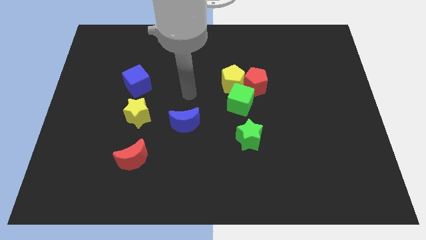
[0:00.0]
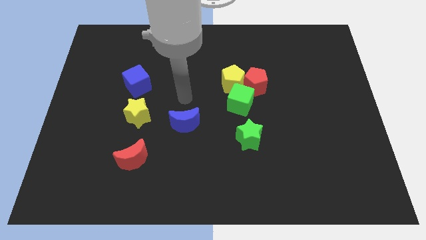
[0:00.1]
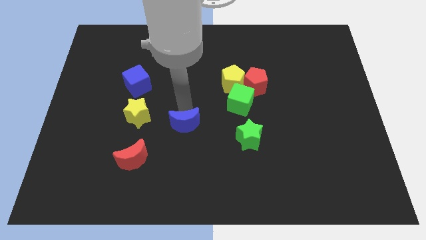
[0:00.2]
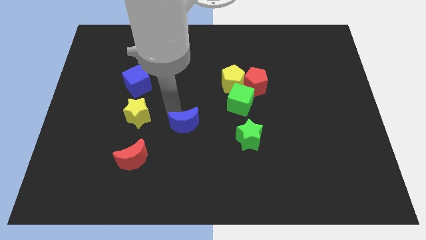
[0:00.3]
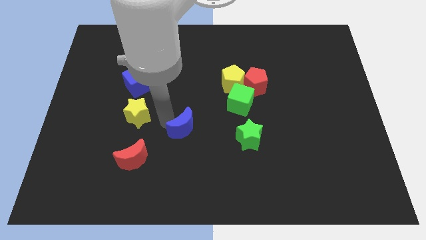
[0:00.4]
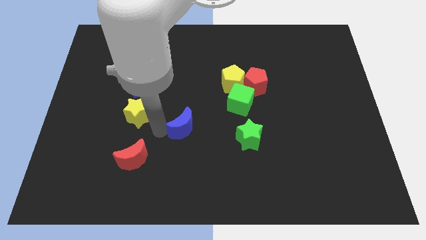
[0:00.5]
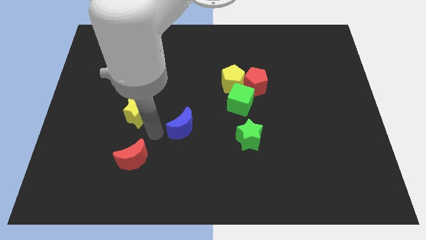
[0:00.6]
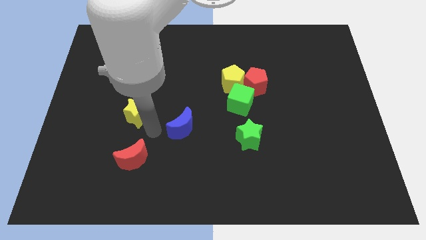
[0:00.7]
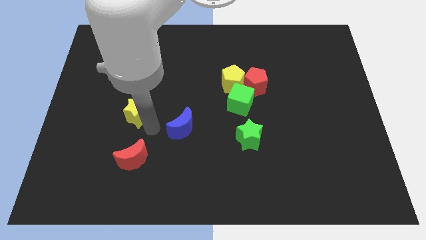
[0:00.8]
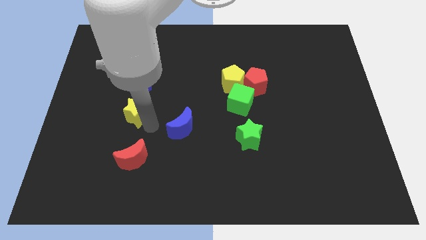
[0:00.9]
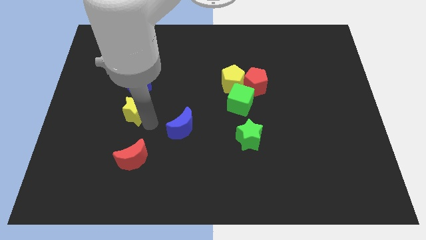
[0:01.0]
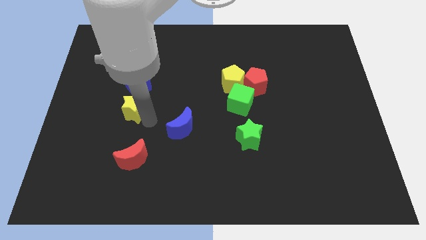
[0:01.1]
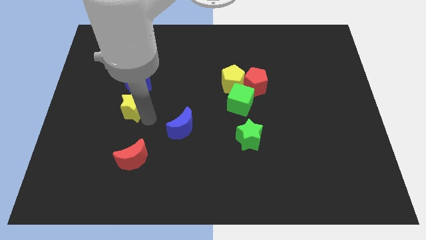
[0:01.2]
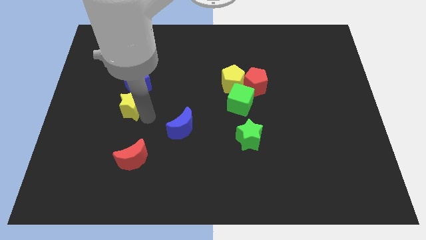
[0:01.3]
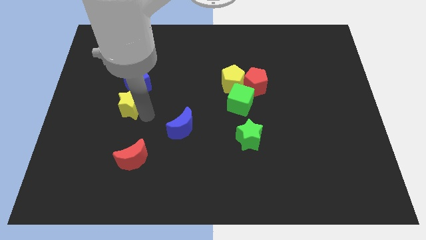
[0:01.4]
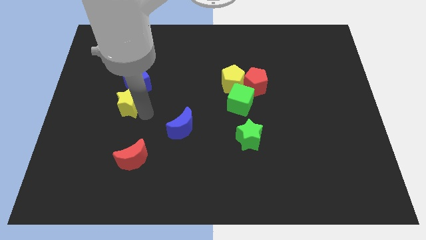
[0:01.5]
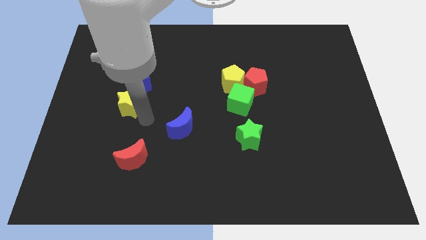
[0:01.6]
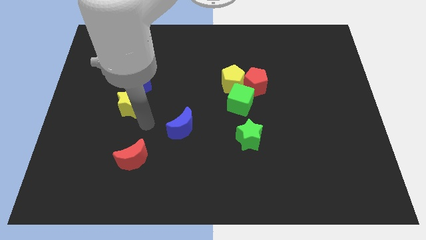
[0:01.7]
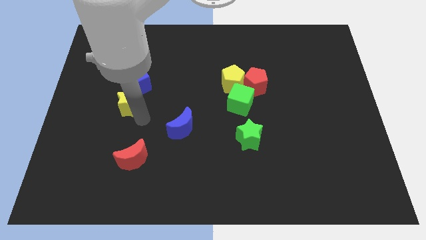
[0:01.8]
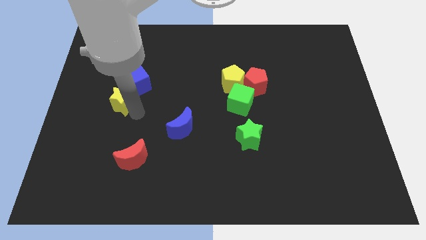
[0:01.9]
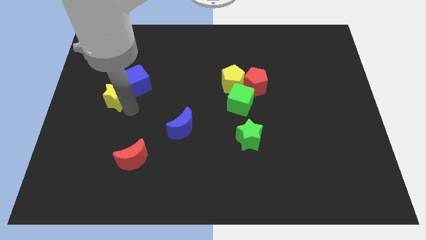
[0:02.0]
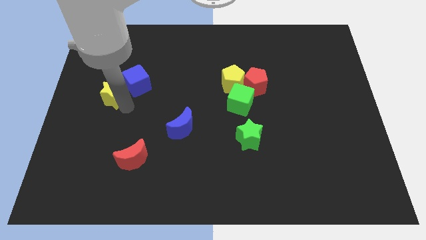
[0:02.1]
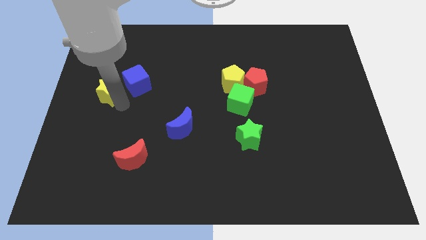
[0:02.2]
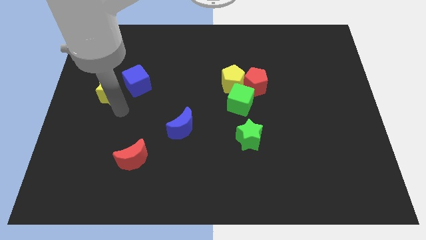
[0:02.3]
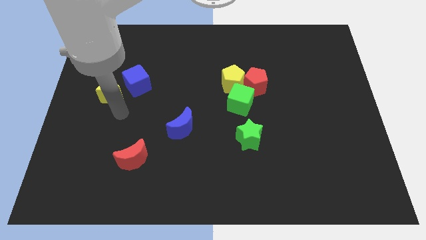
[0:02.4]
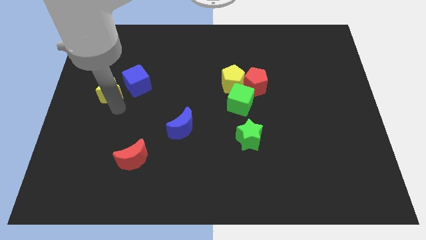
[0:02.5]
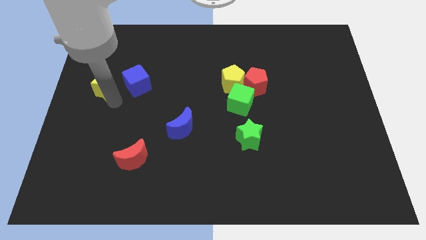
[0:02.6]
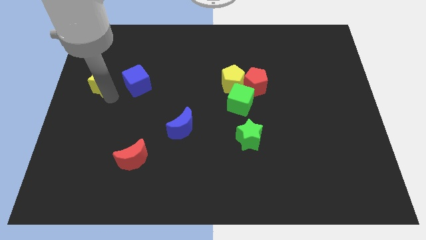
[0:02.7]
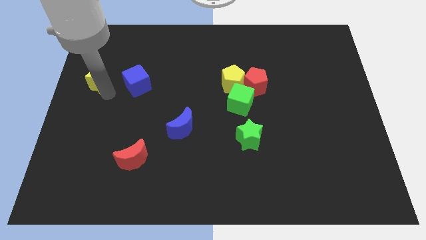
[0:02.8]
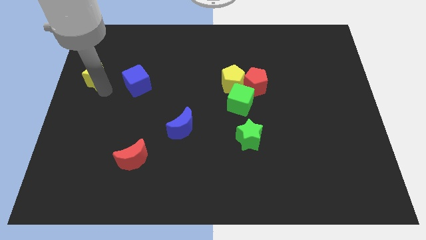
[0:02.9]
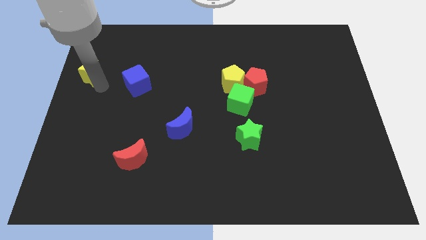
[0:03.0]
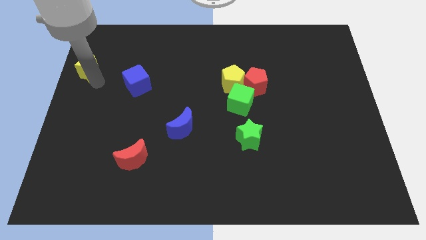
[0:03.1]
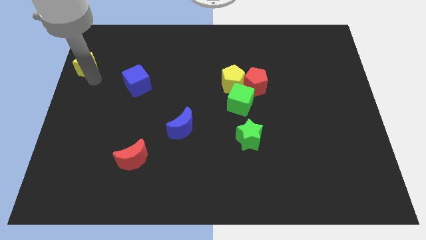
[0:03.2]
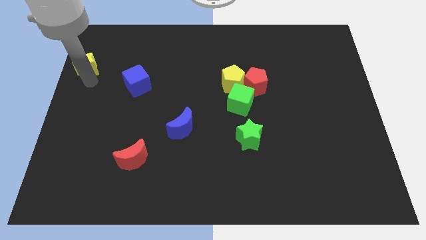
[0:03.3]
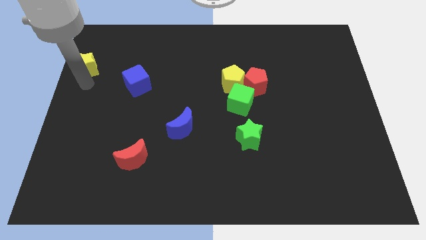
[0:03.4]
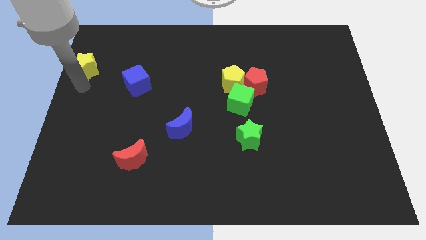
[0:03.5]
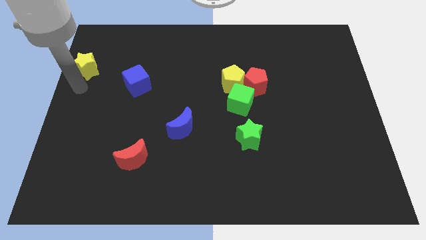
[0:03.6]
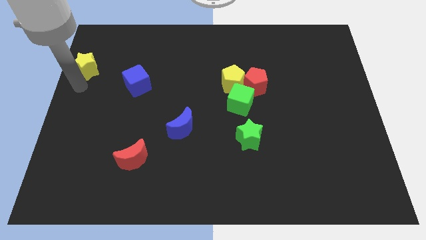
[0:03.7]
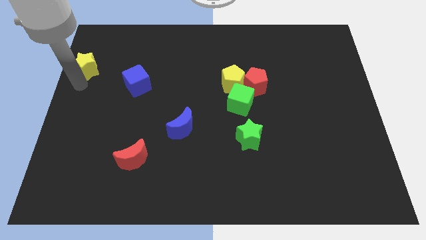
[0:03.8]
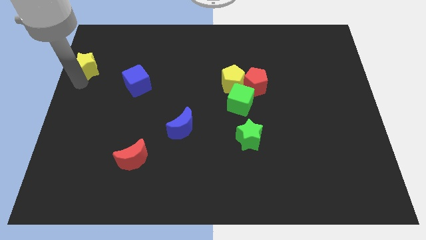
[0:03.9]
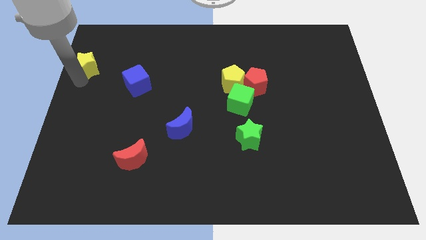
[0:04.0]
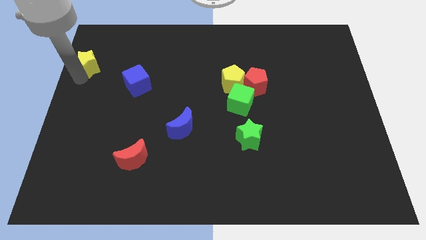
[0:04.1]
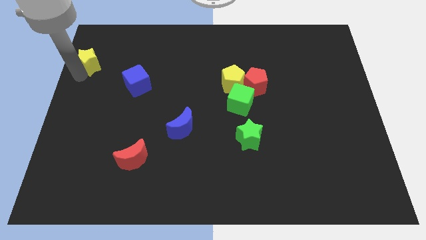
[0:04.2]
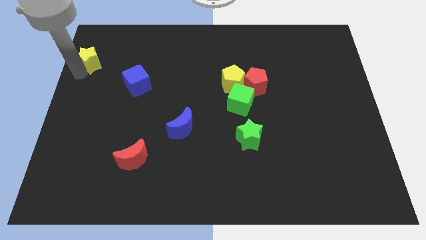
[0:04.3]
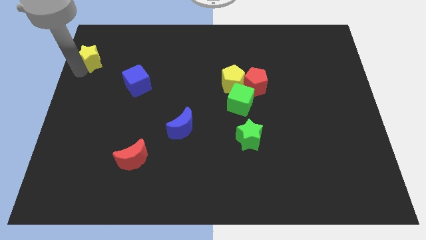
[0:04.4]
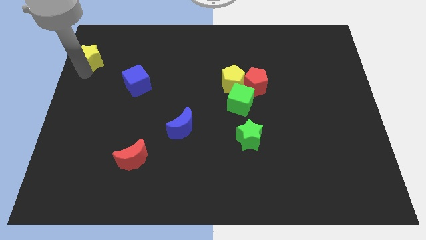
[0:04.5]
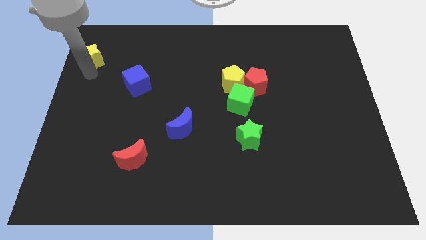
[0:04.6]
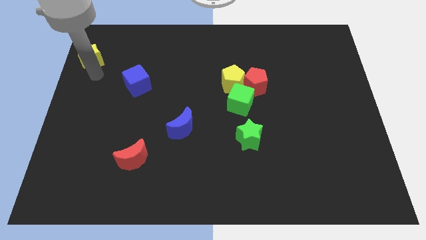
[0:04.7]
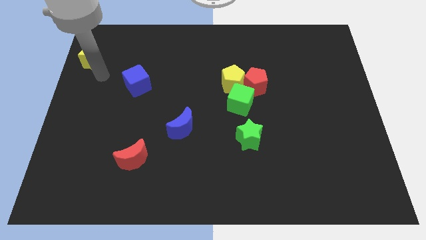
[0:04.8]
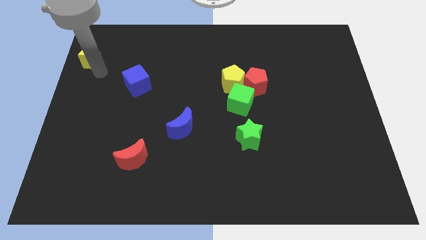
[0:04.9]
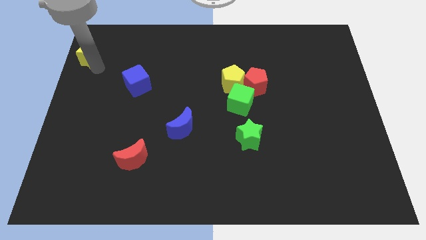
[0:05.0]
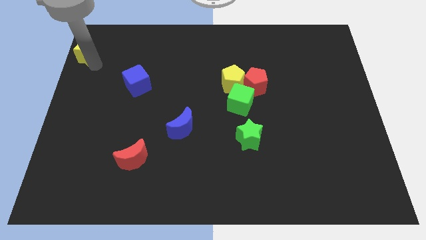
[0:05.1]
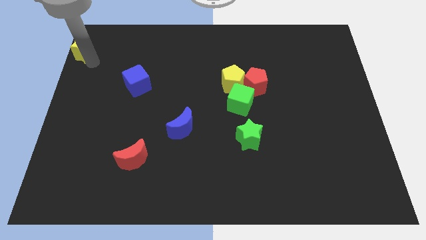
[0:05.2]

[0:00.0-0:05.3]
move the yellow star to the top left of the board
